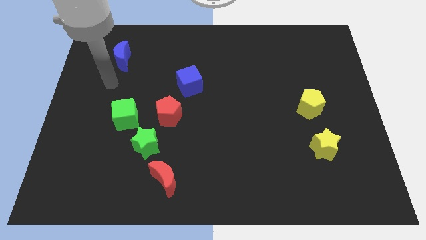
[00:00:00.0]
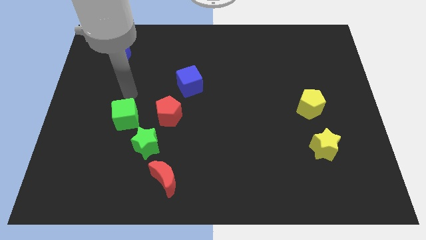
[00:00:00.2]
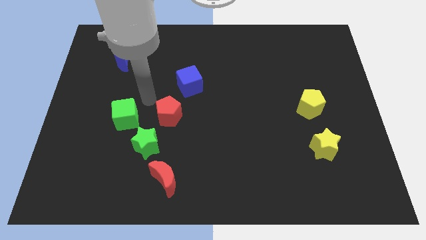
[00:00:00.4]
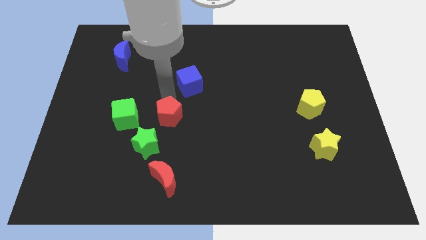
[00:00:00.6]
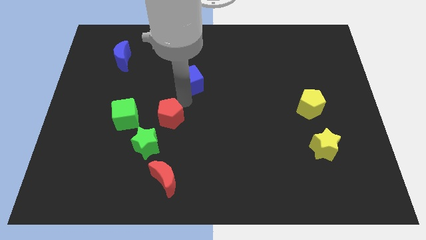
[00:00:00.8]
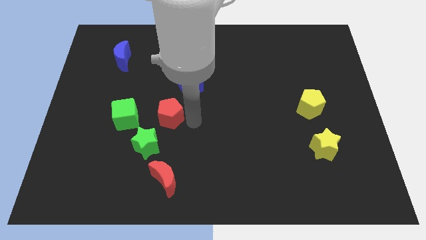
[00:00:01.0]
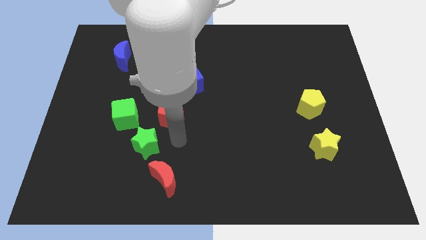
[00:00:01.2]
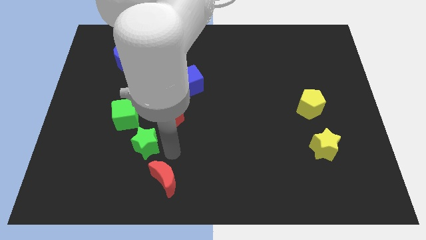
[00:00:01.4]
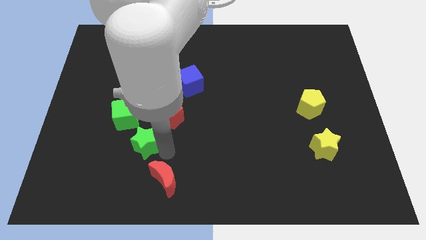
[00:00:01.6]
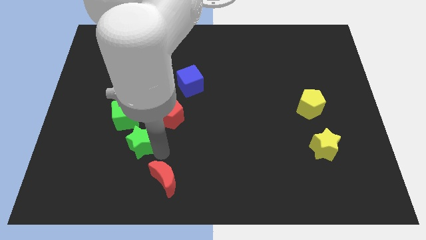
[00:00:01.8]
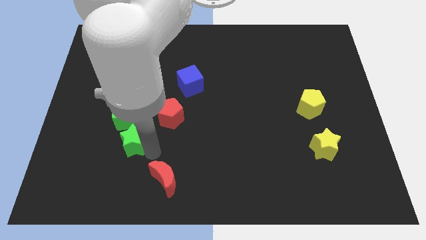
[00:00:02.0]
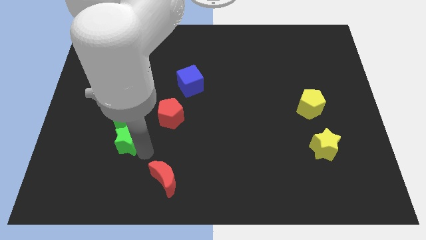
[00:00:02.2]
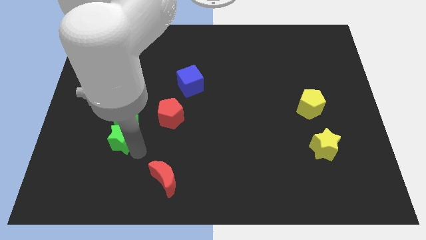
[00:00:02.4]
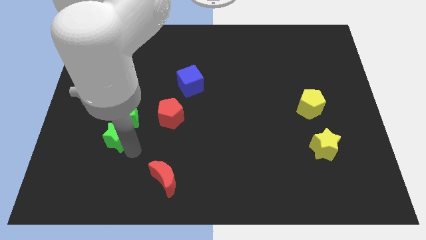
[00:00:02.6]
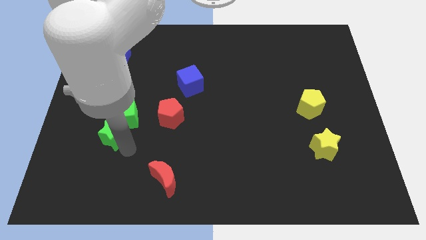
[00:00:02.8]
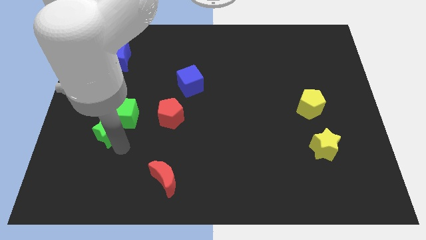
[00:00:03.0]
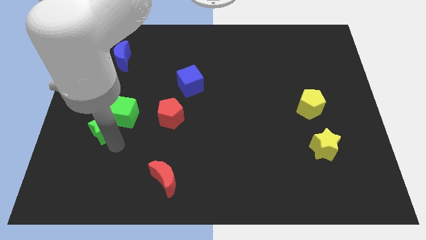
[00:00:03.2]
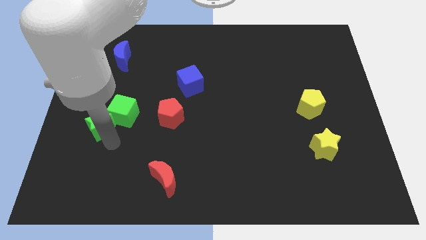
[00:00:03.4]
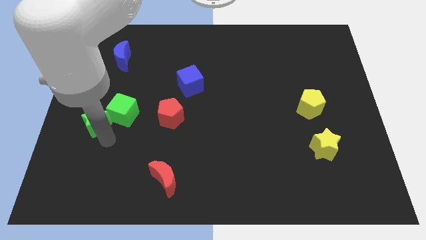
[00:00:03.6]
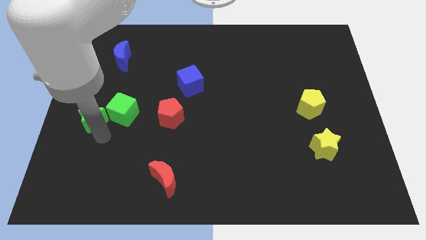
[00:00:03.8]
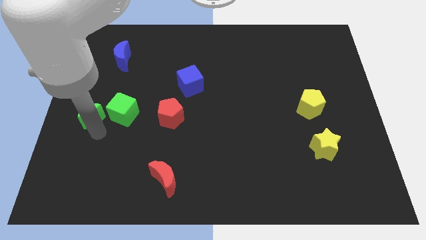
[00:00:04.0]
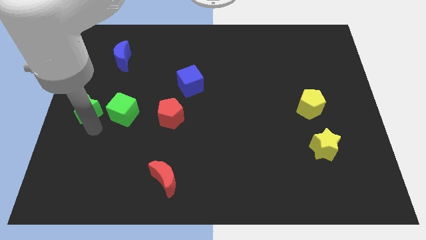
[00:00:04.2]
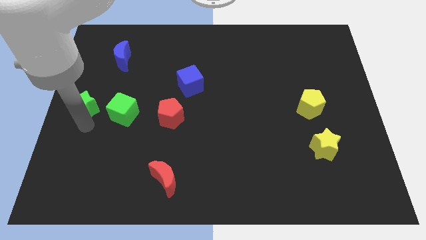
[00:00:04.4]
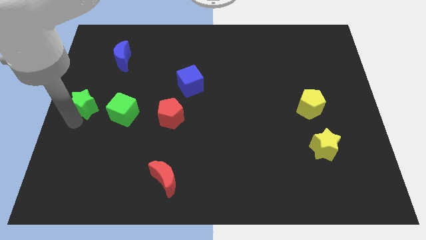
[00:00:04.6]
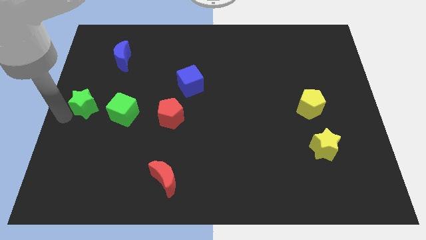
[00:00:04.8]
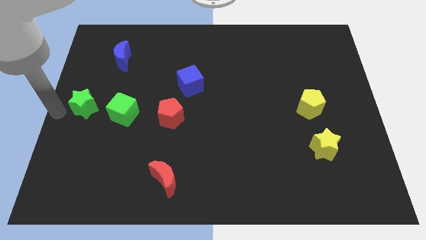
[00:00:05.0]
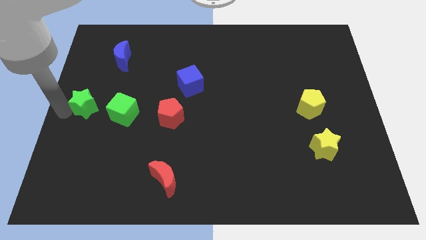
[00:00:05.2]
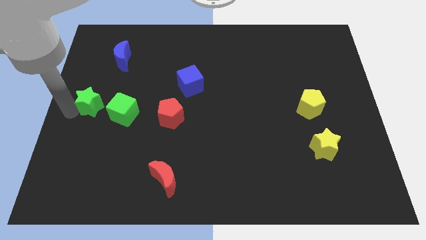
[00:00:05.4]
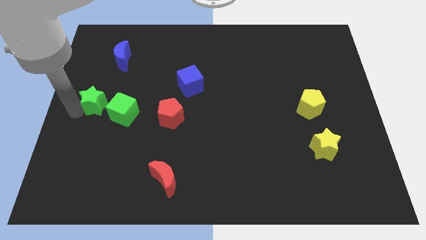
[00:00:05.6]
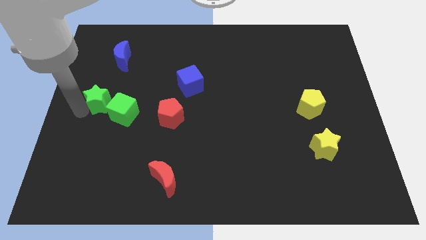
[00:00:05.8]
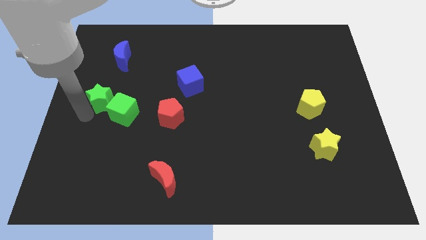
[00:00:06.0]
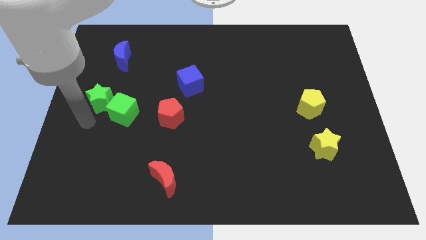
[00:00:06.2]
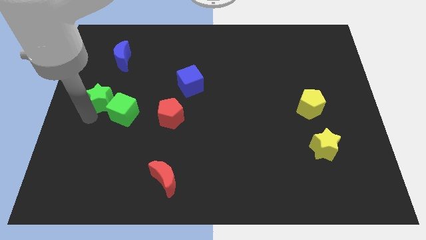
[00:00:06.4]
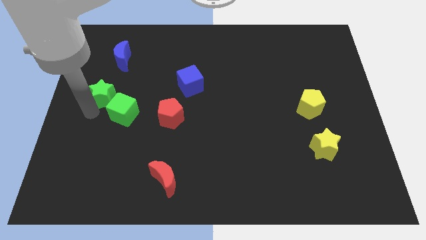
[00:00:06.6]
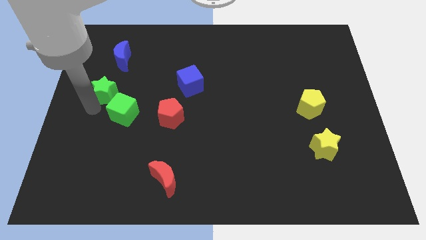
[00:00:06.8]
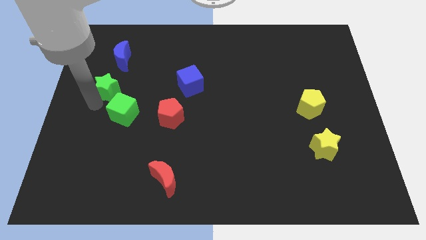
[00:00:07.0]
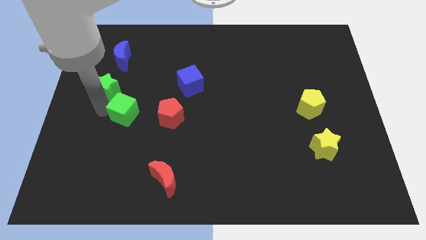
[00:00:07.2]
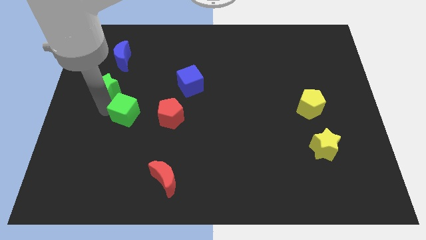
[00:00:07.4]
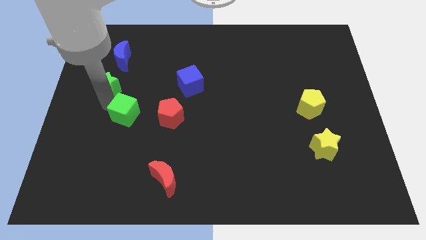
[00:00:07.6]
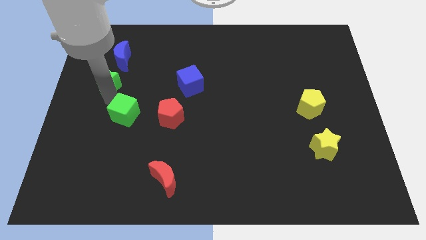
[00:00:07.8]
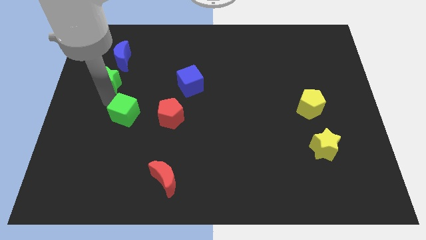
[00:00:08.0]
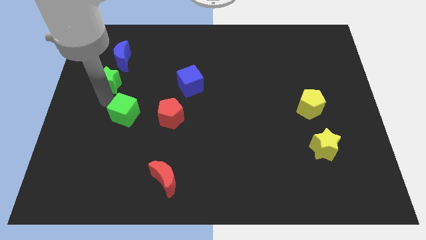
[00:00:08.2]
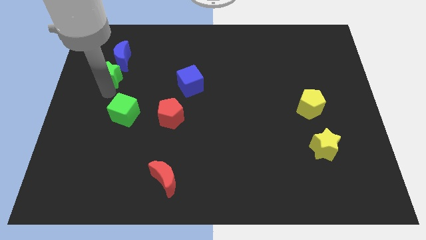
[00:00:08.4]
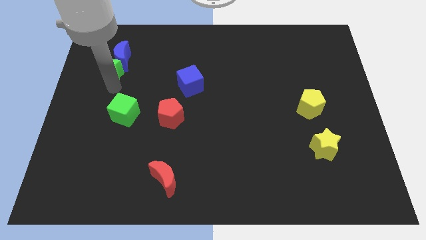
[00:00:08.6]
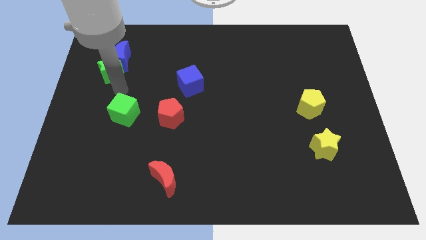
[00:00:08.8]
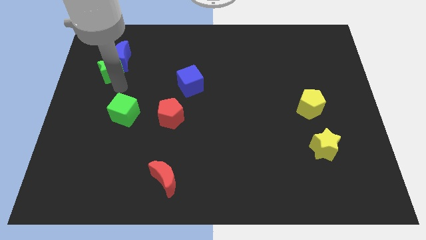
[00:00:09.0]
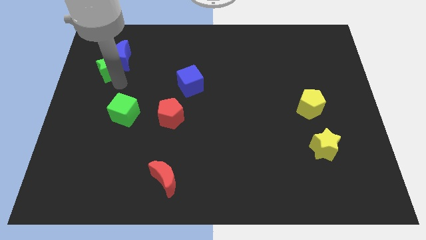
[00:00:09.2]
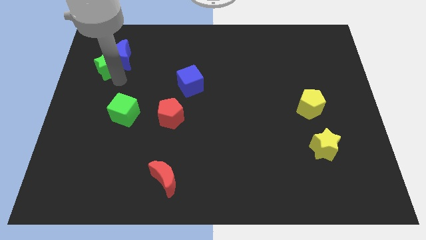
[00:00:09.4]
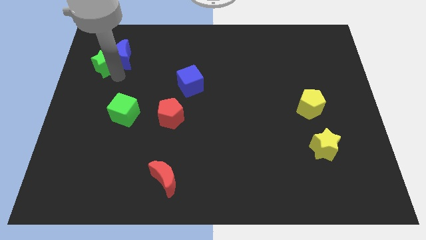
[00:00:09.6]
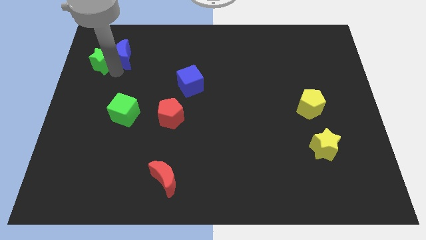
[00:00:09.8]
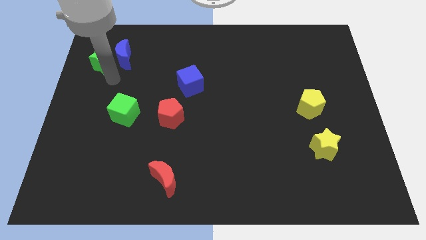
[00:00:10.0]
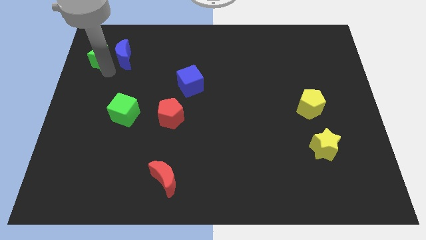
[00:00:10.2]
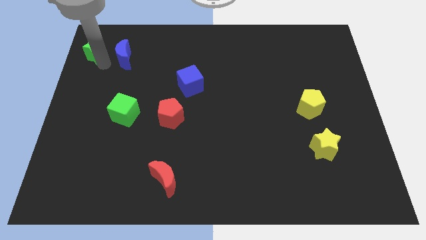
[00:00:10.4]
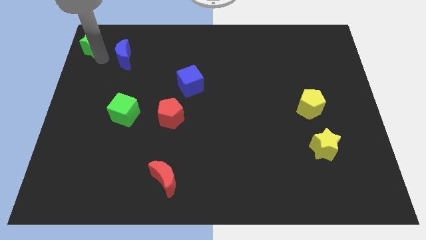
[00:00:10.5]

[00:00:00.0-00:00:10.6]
put the green star to the top left of the board

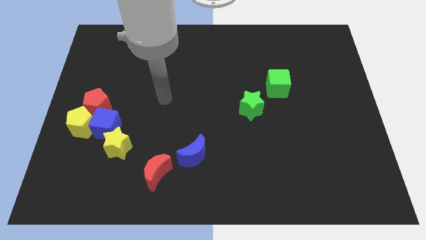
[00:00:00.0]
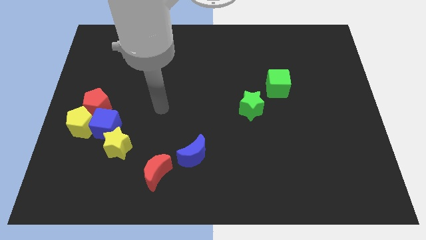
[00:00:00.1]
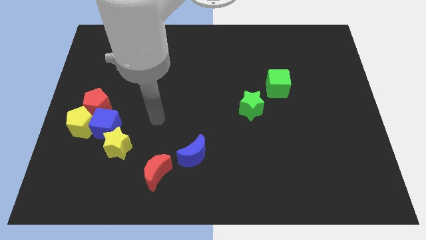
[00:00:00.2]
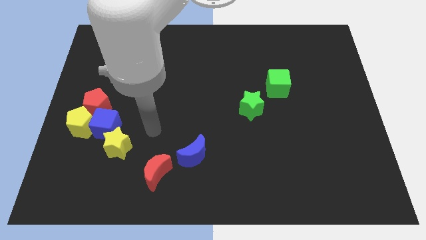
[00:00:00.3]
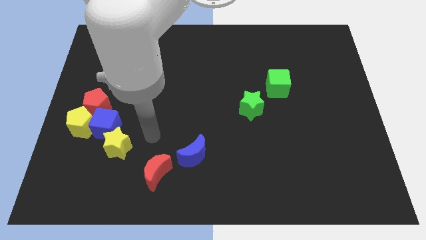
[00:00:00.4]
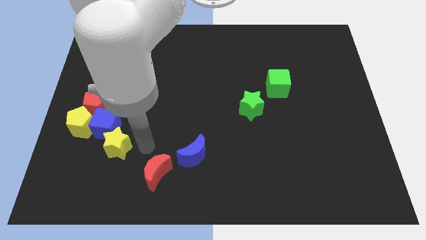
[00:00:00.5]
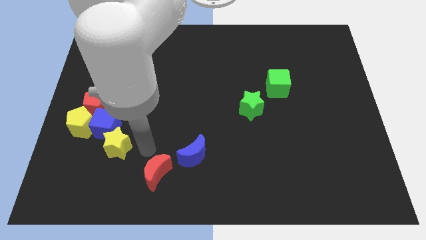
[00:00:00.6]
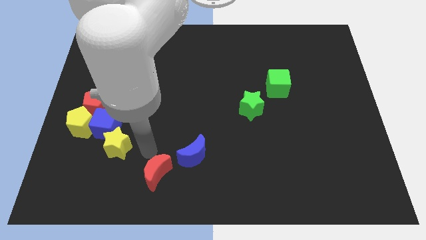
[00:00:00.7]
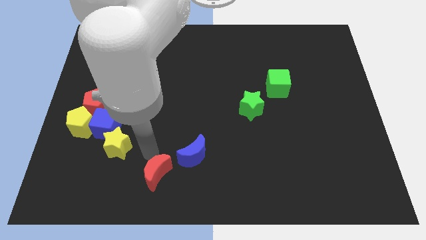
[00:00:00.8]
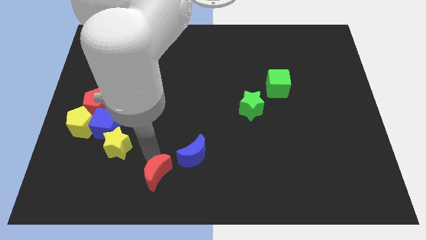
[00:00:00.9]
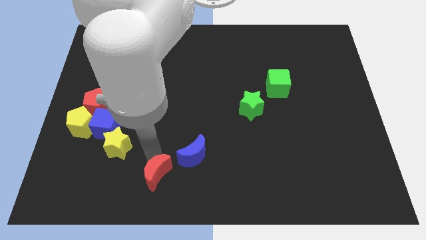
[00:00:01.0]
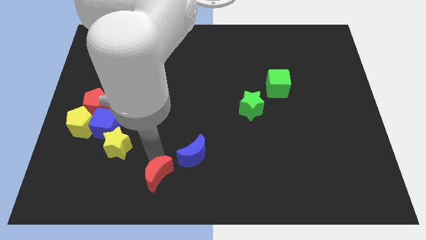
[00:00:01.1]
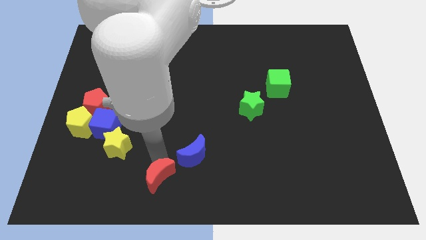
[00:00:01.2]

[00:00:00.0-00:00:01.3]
put the red moon to the bottom side

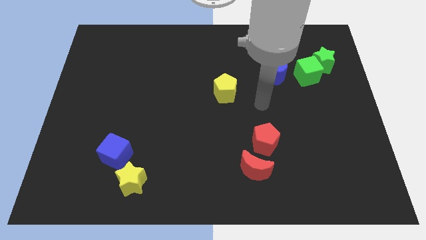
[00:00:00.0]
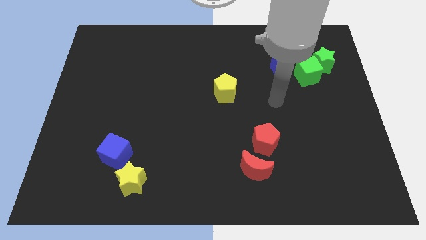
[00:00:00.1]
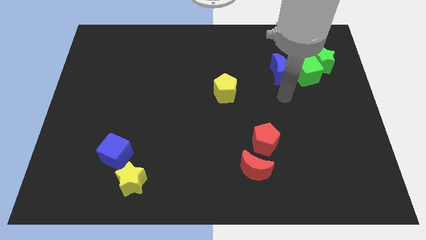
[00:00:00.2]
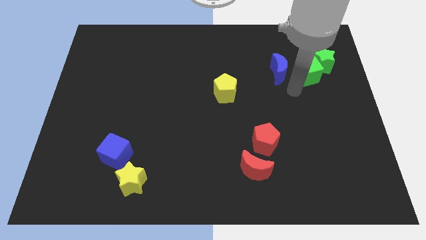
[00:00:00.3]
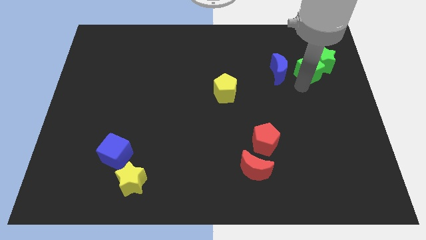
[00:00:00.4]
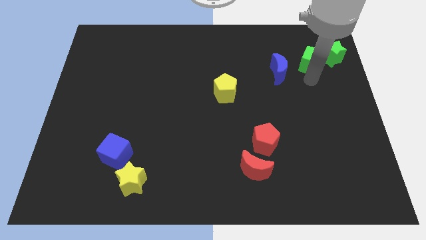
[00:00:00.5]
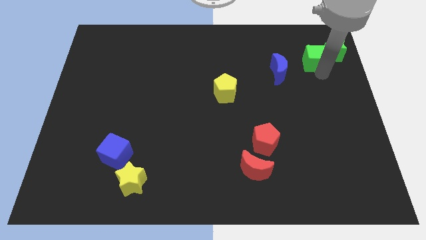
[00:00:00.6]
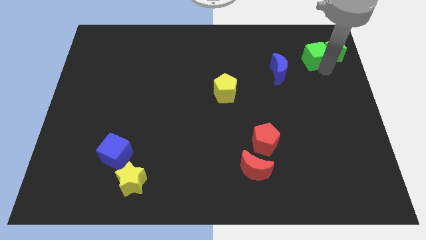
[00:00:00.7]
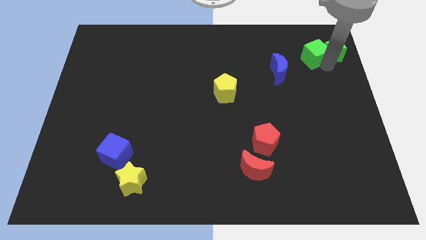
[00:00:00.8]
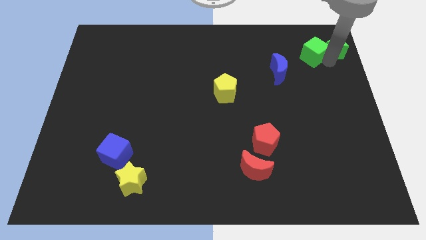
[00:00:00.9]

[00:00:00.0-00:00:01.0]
slide the green star to the top right of the board
